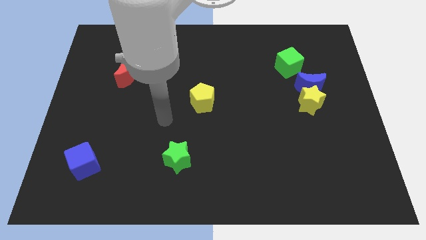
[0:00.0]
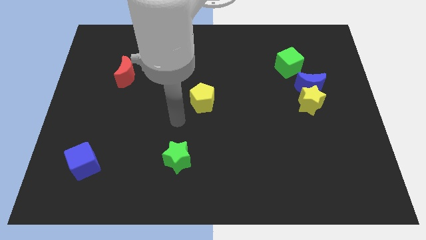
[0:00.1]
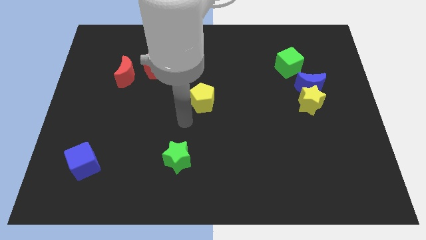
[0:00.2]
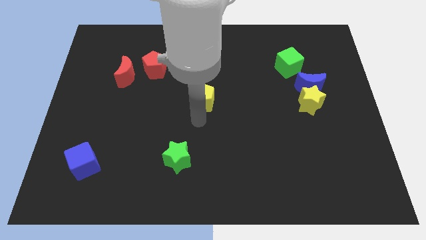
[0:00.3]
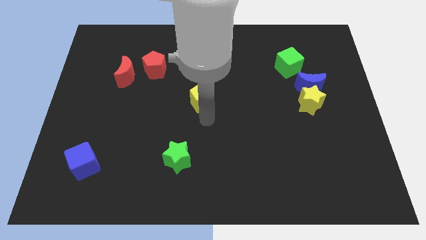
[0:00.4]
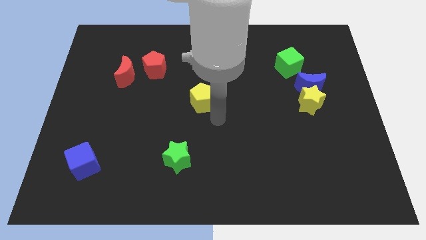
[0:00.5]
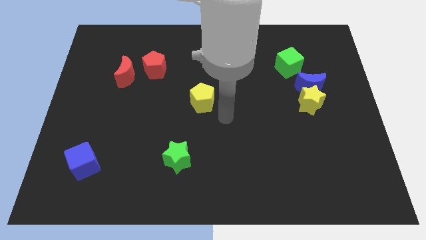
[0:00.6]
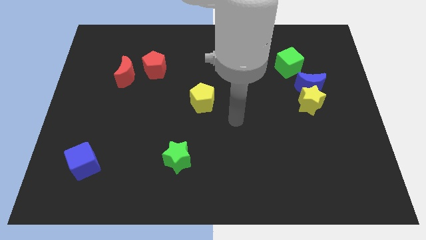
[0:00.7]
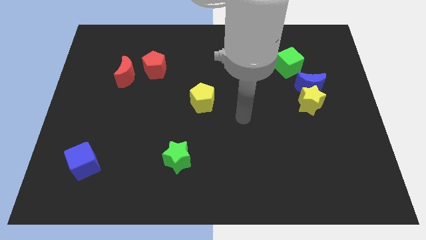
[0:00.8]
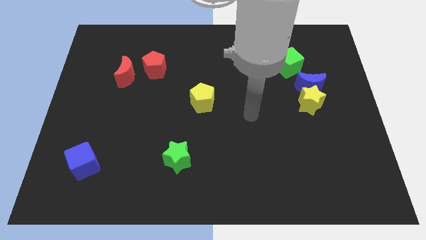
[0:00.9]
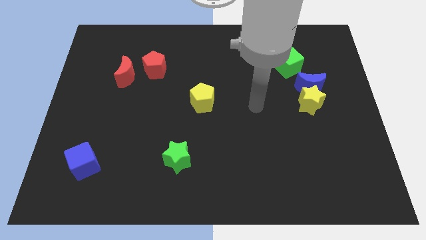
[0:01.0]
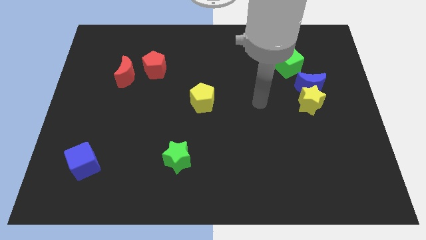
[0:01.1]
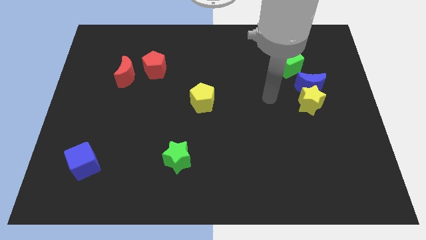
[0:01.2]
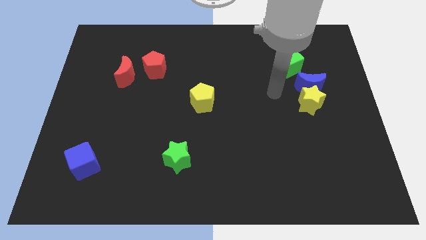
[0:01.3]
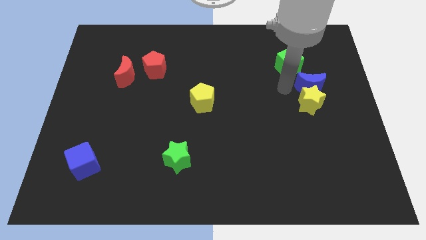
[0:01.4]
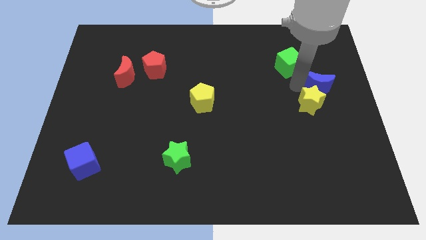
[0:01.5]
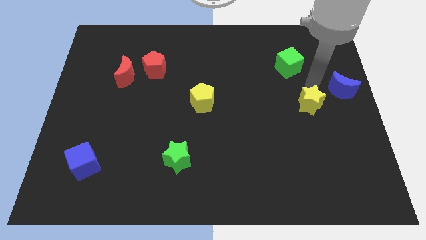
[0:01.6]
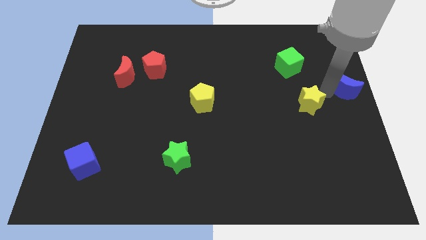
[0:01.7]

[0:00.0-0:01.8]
move the yellow star away from the blue moon

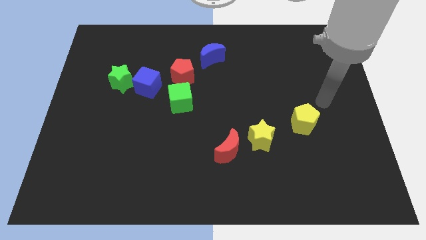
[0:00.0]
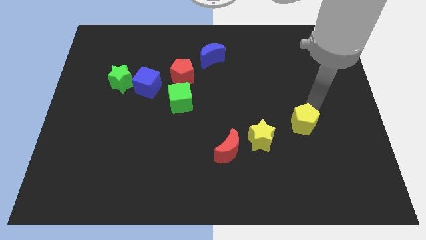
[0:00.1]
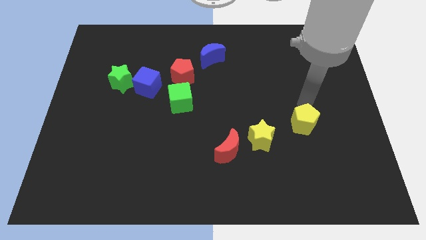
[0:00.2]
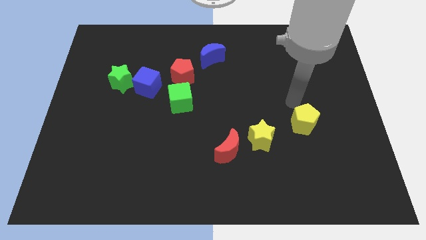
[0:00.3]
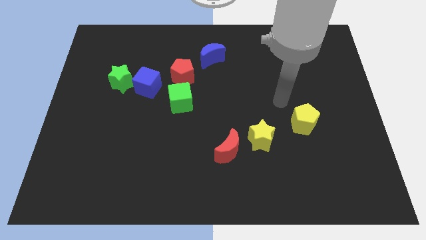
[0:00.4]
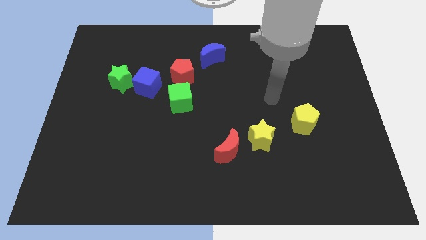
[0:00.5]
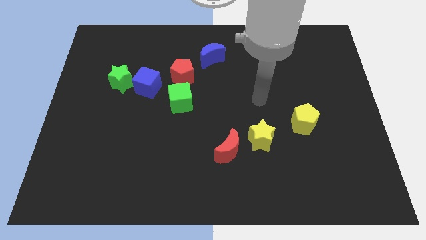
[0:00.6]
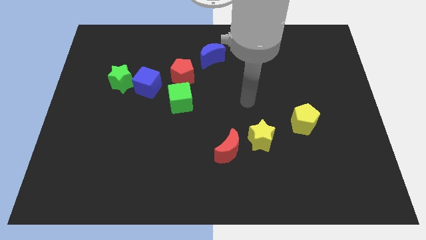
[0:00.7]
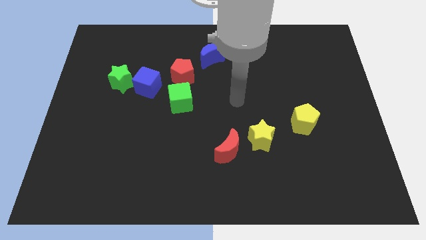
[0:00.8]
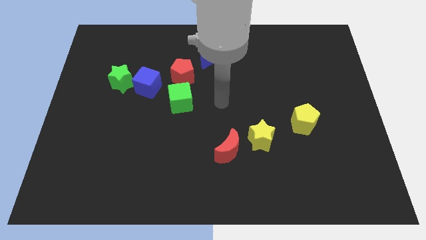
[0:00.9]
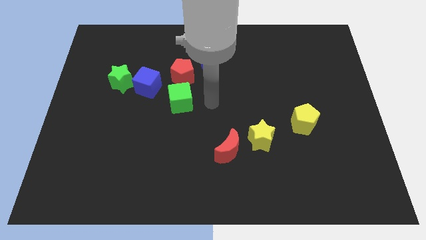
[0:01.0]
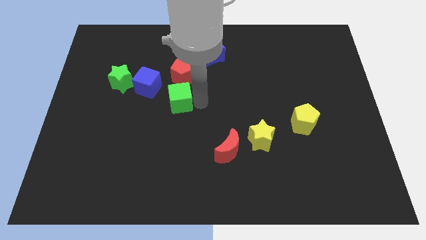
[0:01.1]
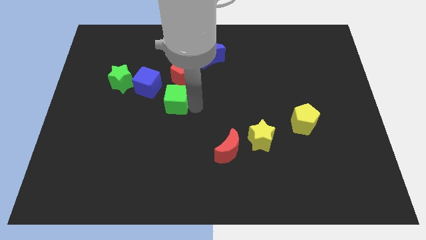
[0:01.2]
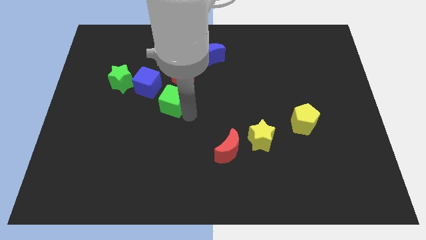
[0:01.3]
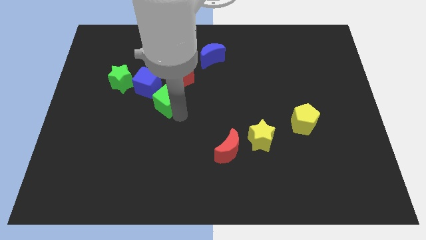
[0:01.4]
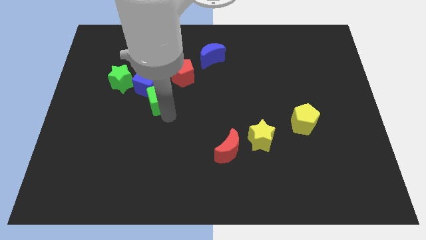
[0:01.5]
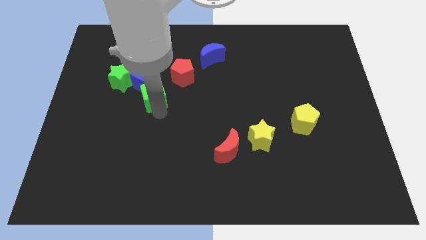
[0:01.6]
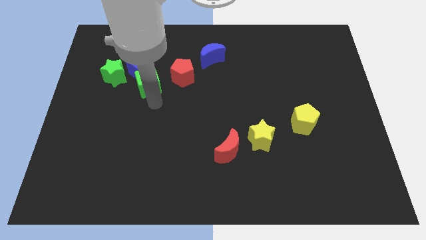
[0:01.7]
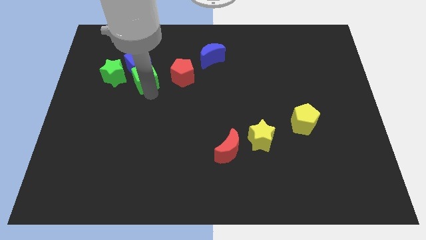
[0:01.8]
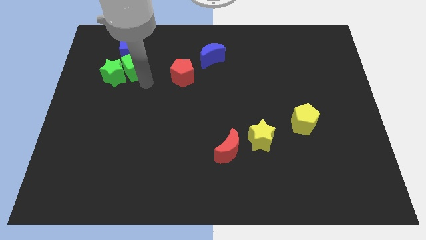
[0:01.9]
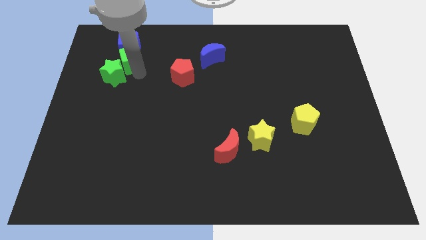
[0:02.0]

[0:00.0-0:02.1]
pull the green star apart from the blue cube

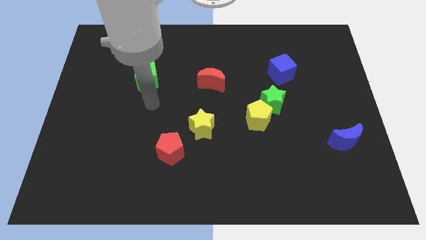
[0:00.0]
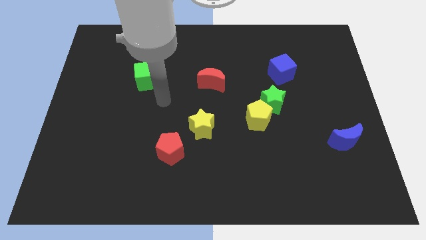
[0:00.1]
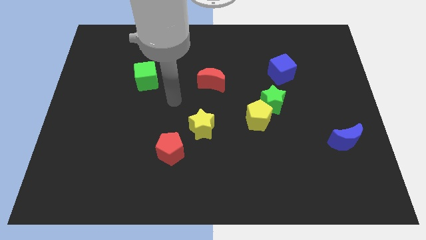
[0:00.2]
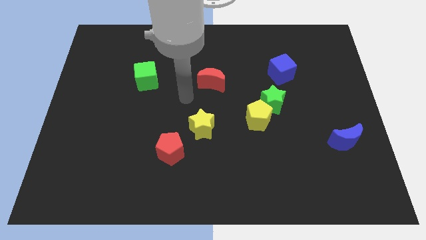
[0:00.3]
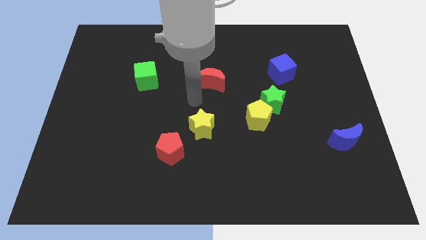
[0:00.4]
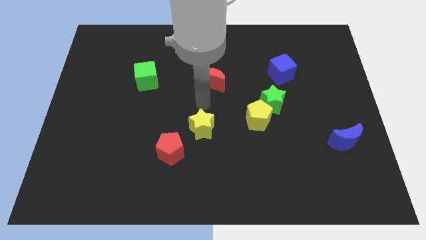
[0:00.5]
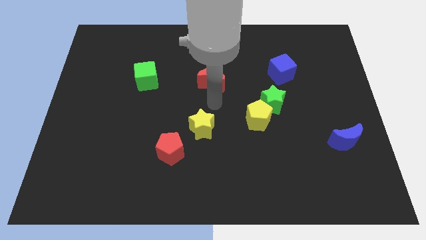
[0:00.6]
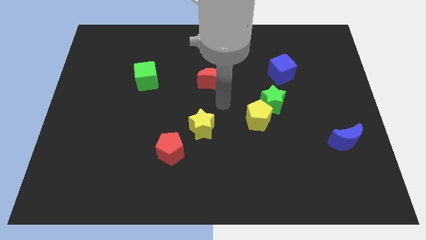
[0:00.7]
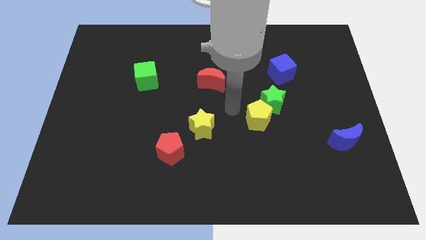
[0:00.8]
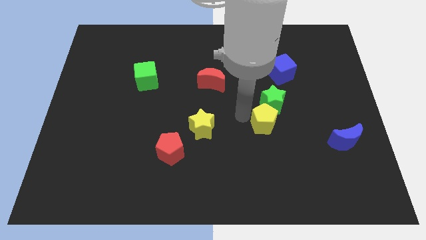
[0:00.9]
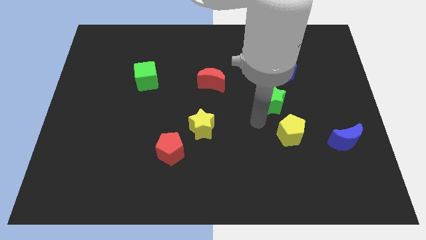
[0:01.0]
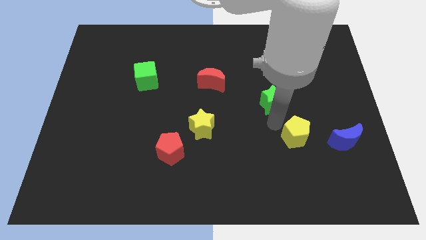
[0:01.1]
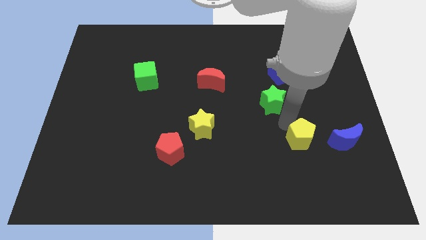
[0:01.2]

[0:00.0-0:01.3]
move the green star away from the yellow pentagon

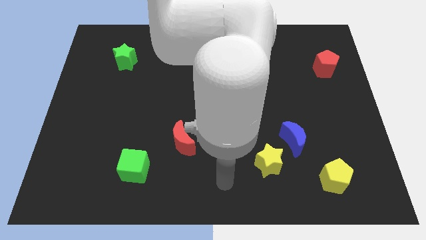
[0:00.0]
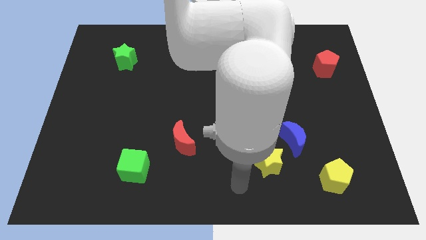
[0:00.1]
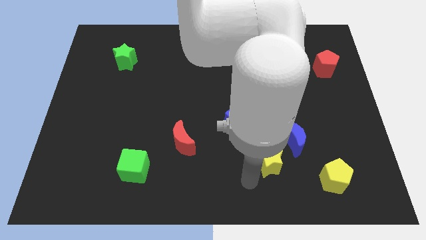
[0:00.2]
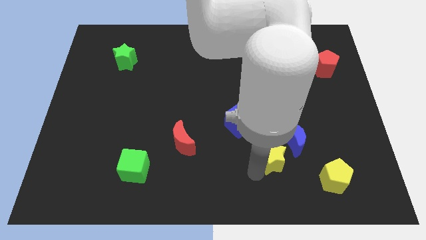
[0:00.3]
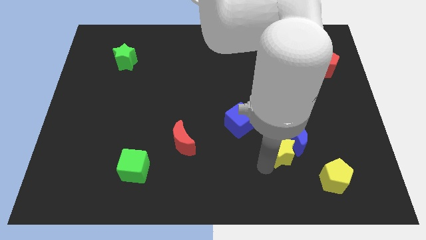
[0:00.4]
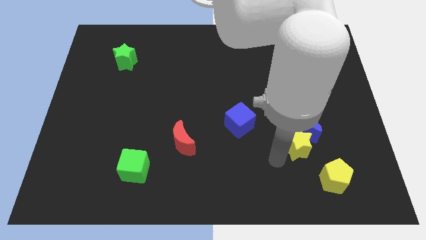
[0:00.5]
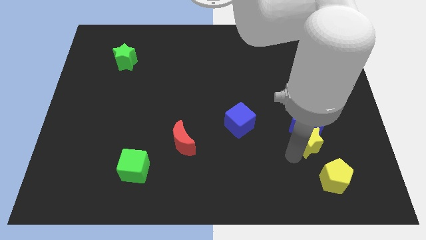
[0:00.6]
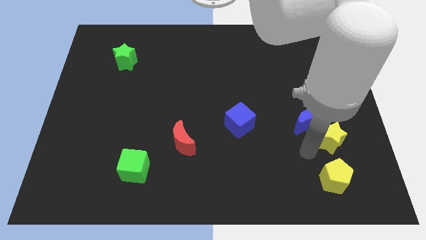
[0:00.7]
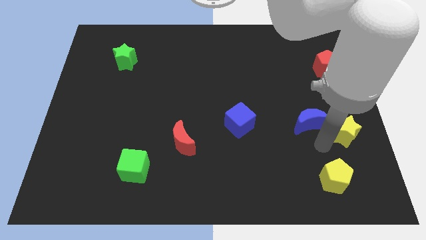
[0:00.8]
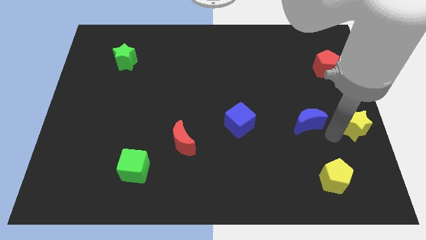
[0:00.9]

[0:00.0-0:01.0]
separate the blue moon from the yellow star

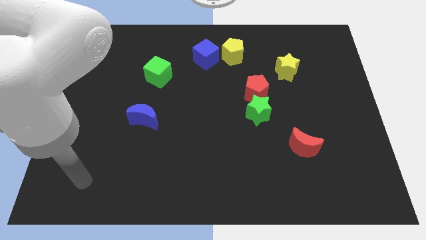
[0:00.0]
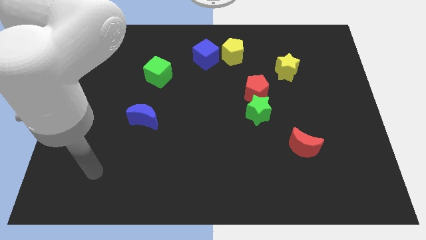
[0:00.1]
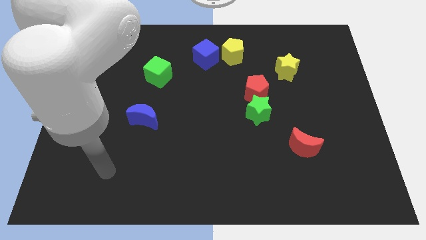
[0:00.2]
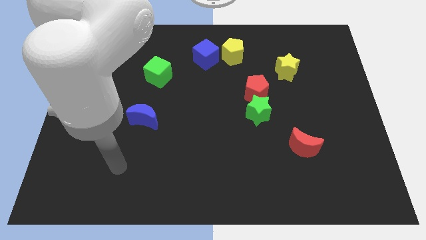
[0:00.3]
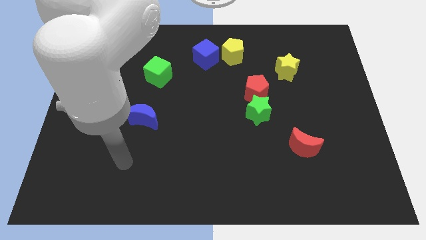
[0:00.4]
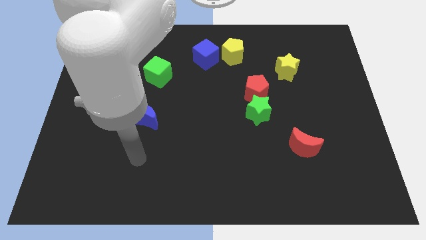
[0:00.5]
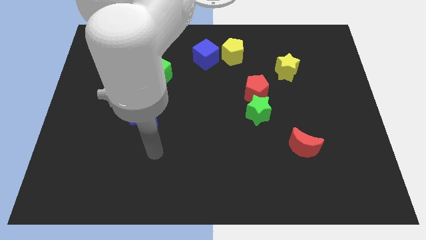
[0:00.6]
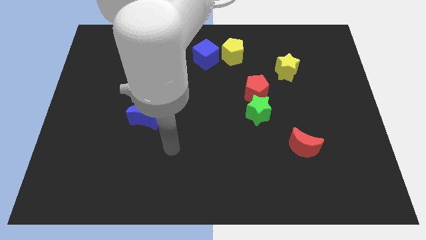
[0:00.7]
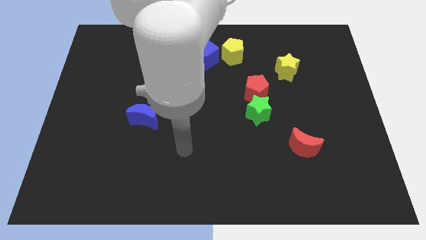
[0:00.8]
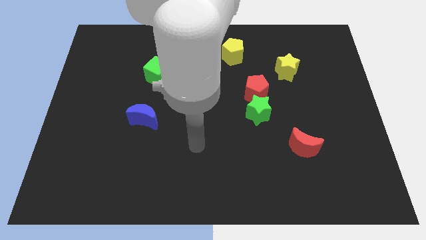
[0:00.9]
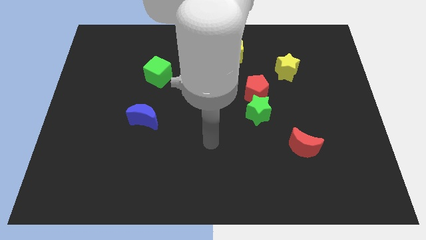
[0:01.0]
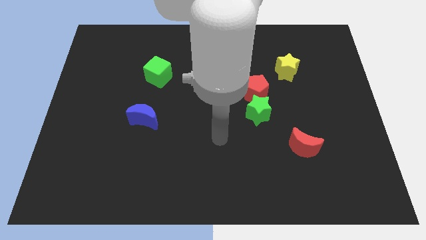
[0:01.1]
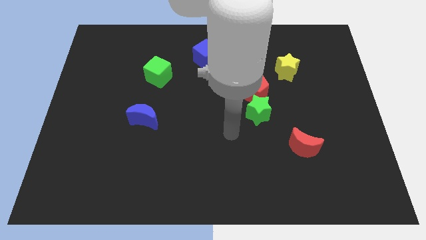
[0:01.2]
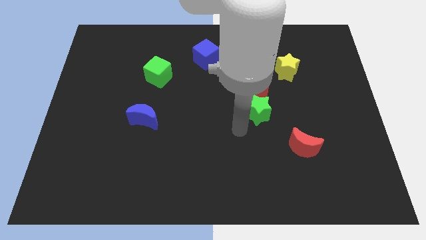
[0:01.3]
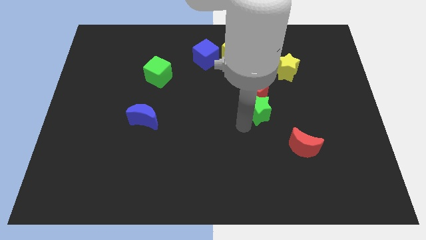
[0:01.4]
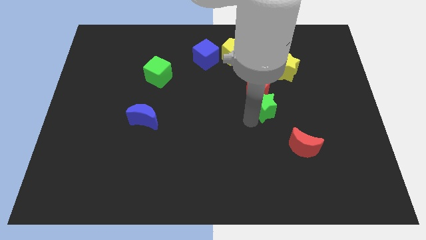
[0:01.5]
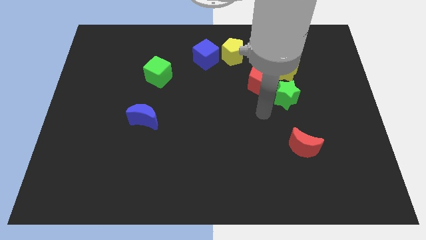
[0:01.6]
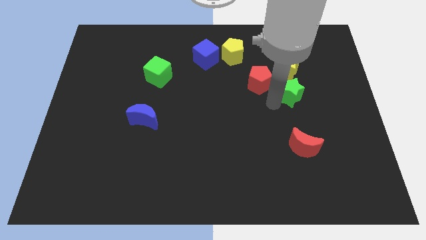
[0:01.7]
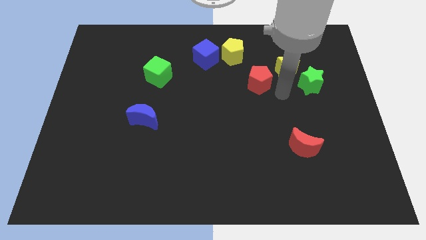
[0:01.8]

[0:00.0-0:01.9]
pull the red pentagon apart from the green star

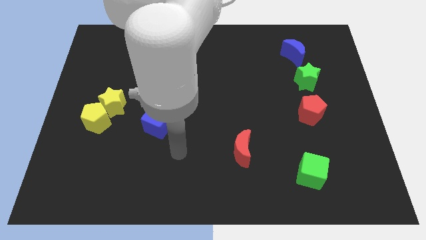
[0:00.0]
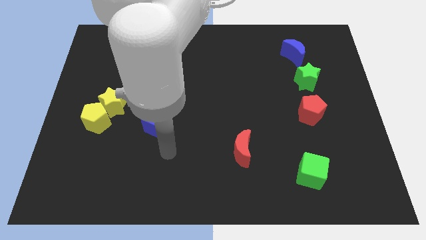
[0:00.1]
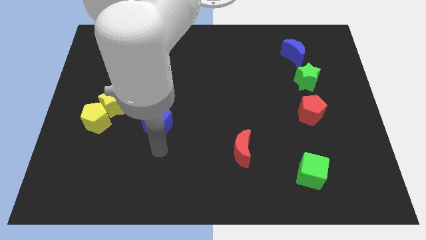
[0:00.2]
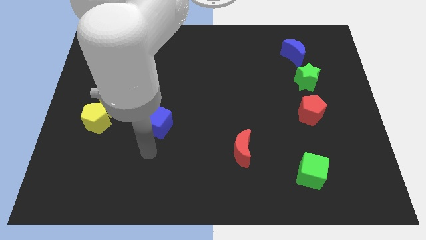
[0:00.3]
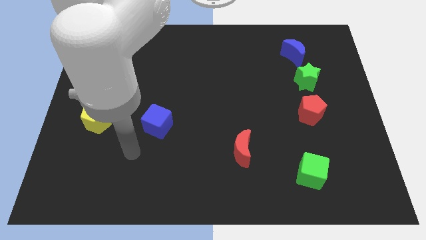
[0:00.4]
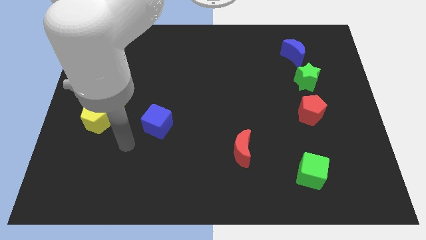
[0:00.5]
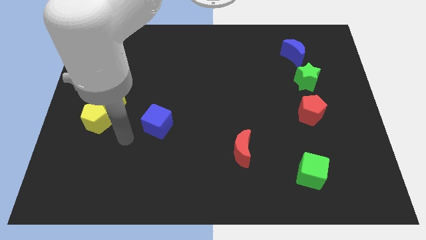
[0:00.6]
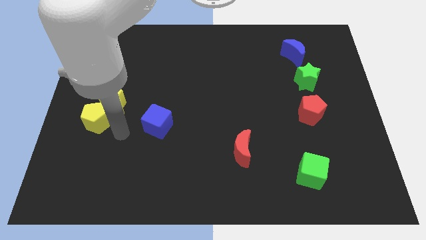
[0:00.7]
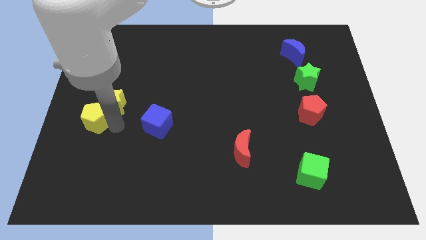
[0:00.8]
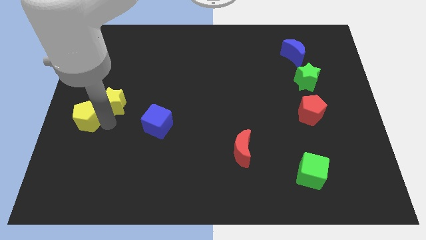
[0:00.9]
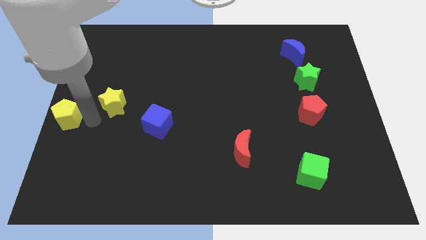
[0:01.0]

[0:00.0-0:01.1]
separate the yellow star from the yellow pentagon
